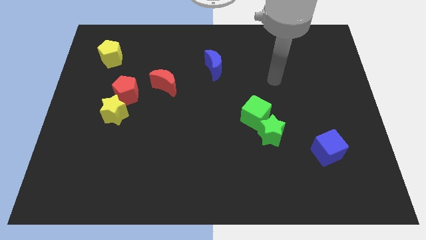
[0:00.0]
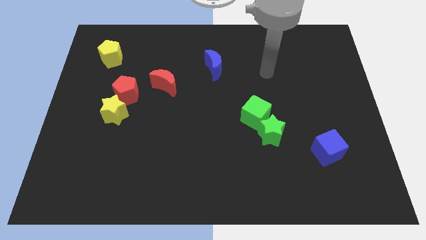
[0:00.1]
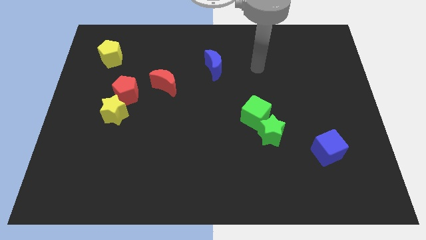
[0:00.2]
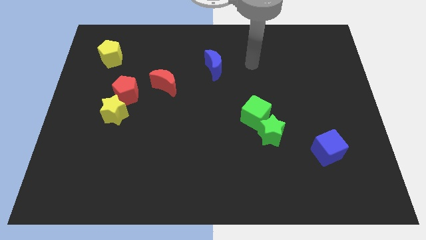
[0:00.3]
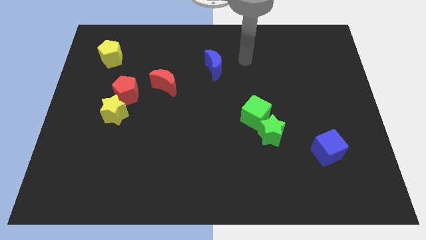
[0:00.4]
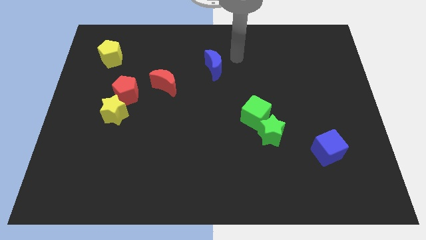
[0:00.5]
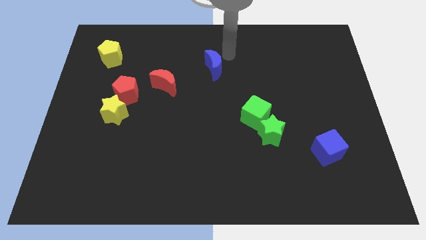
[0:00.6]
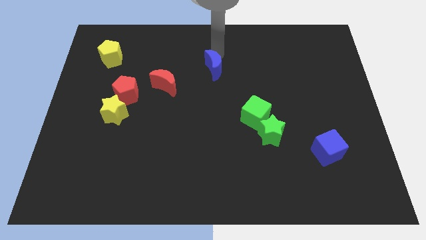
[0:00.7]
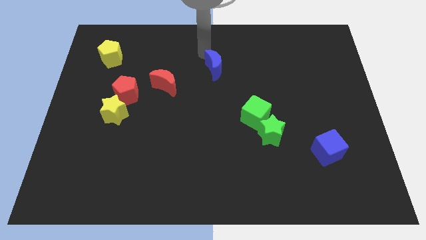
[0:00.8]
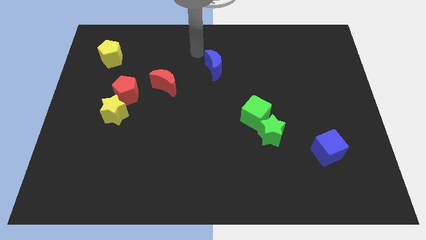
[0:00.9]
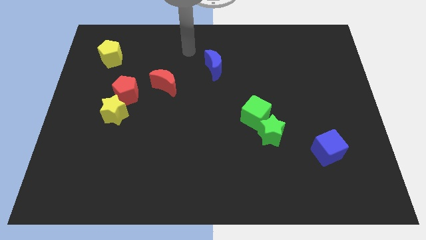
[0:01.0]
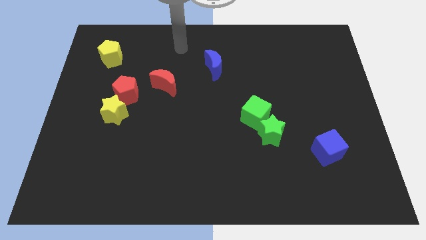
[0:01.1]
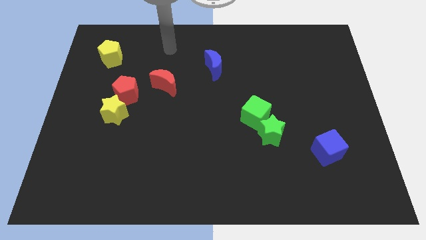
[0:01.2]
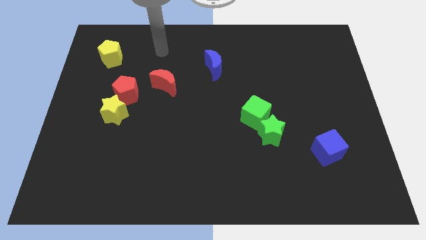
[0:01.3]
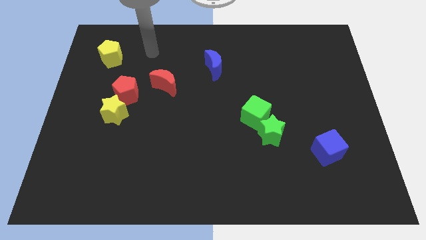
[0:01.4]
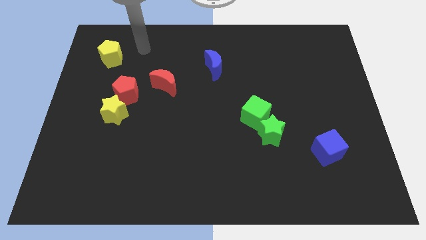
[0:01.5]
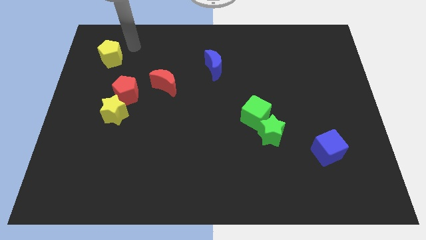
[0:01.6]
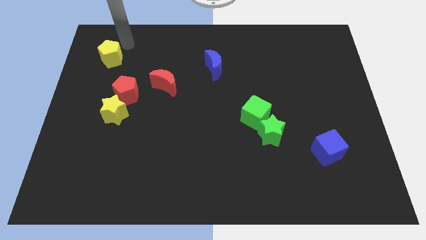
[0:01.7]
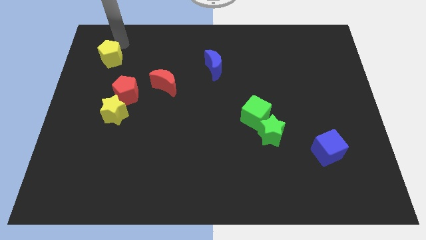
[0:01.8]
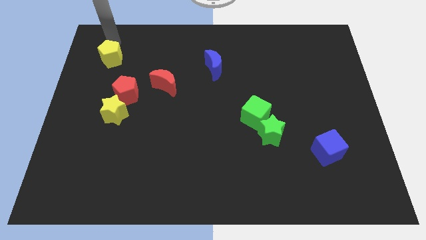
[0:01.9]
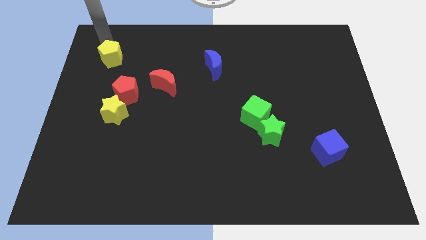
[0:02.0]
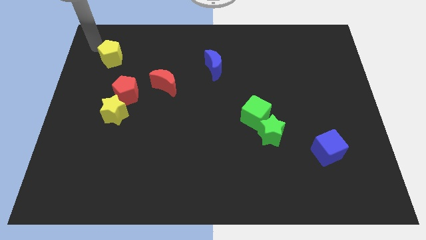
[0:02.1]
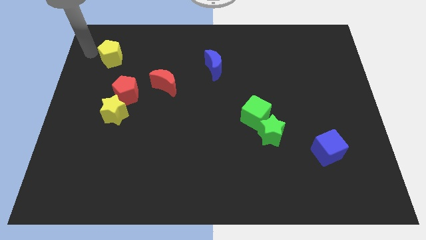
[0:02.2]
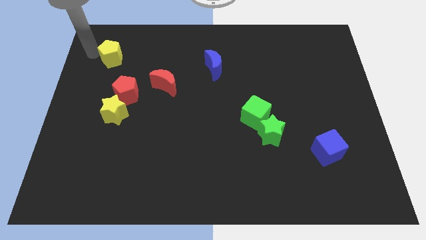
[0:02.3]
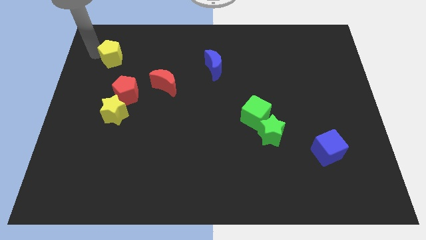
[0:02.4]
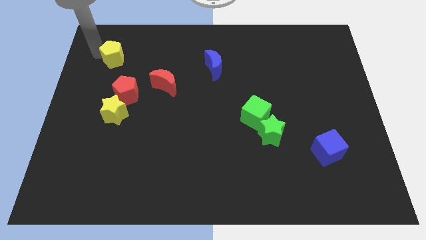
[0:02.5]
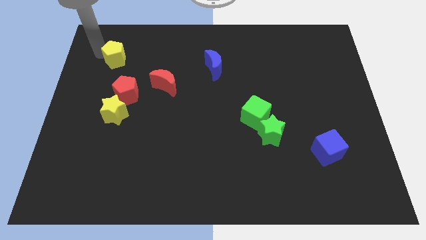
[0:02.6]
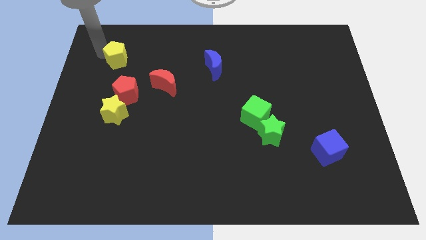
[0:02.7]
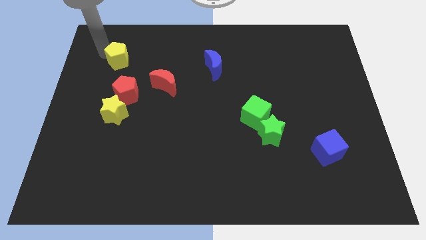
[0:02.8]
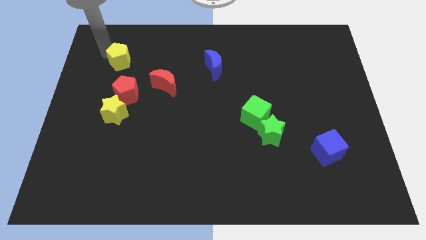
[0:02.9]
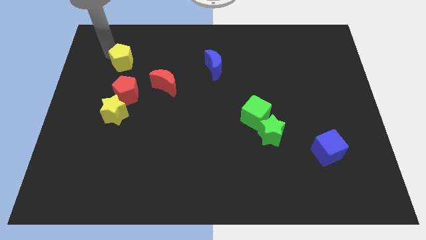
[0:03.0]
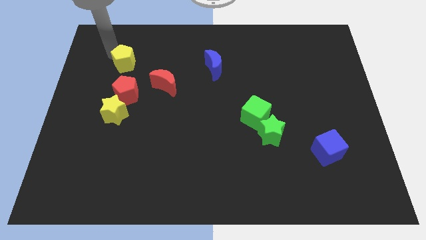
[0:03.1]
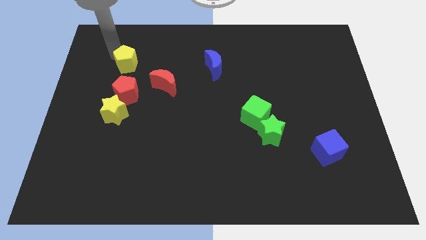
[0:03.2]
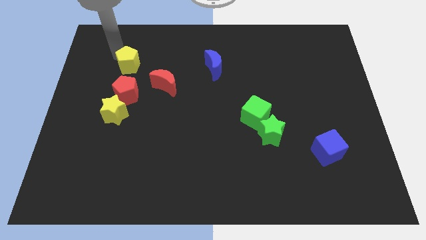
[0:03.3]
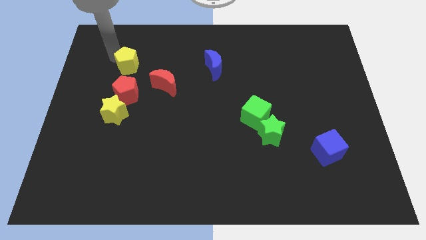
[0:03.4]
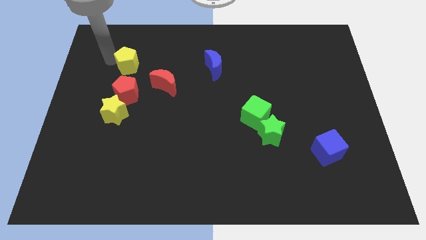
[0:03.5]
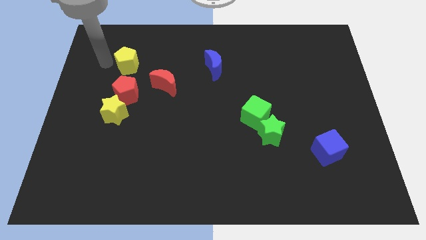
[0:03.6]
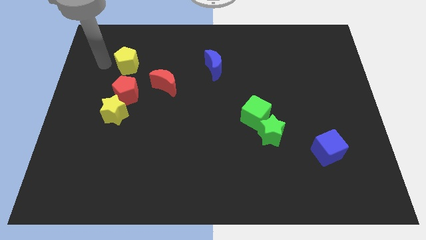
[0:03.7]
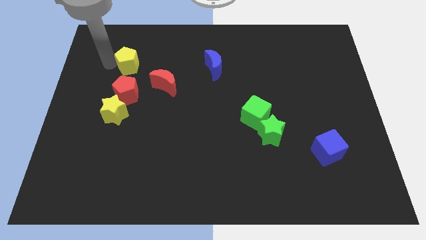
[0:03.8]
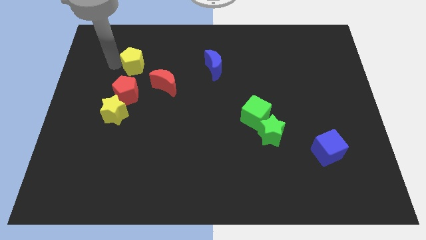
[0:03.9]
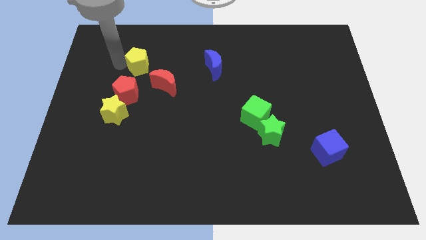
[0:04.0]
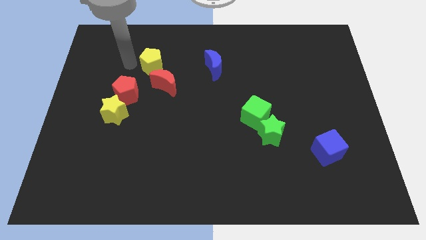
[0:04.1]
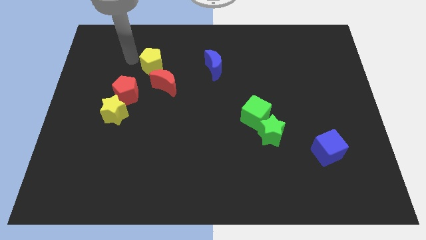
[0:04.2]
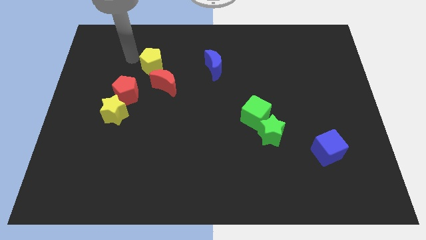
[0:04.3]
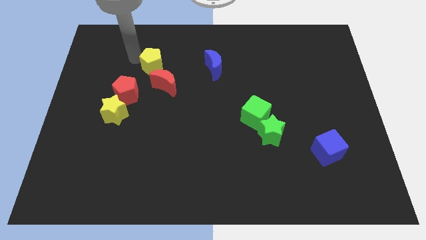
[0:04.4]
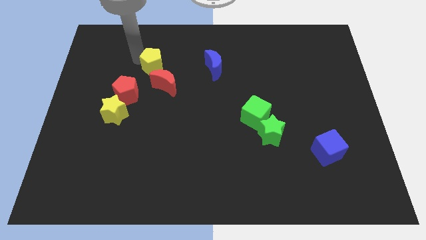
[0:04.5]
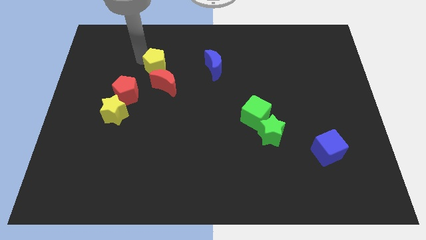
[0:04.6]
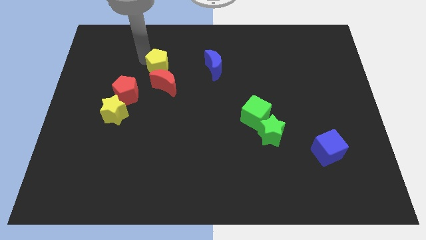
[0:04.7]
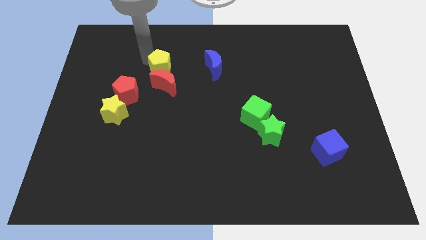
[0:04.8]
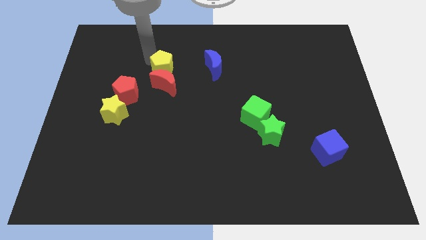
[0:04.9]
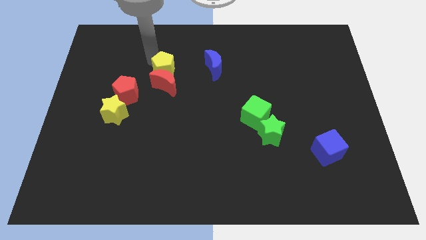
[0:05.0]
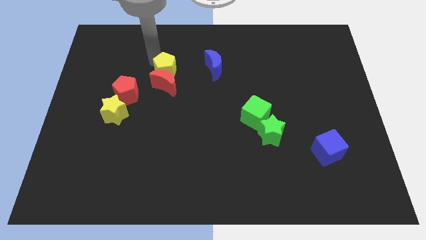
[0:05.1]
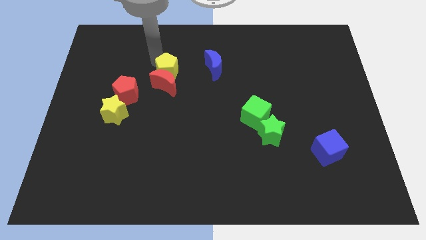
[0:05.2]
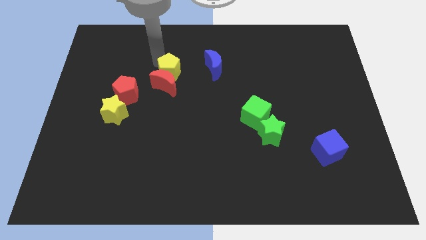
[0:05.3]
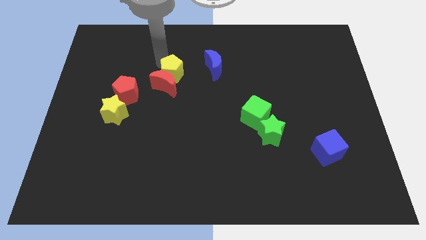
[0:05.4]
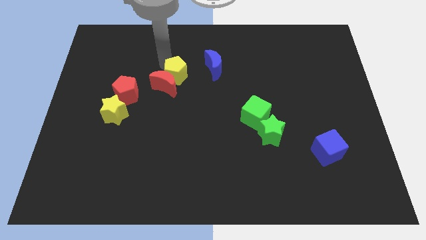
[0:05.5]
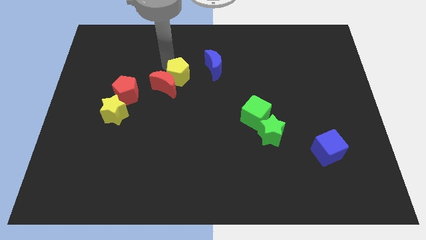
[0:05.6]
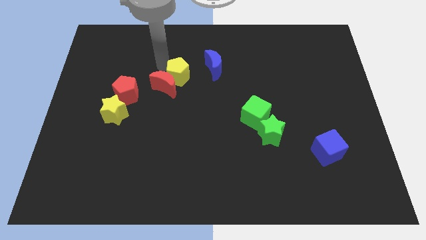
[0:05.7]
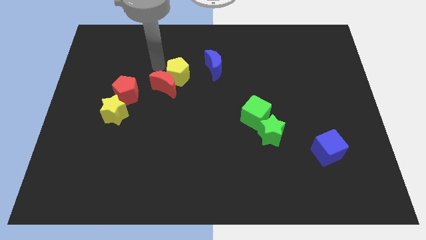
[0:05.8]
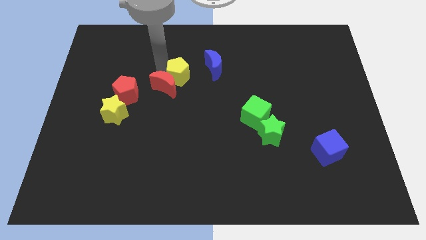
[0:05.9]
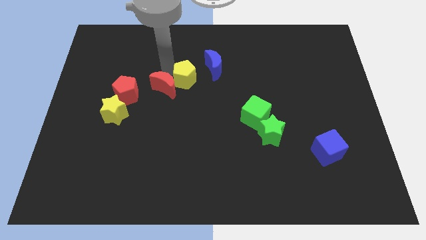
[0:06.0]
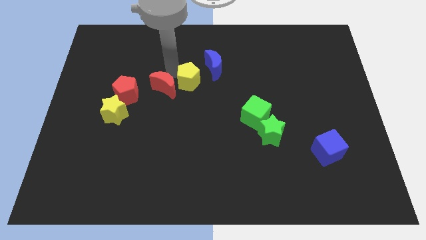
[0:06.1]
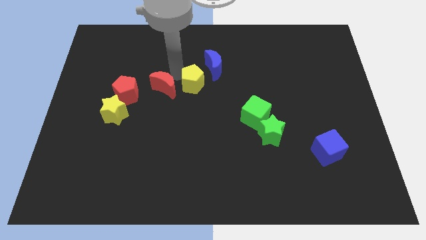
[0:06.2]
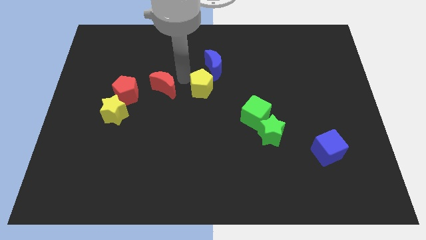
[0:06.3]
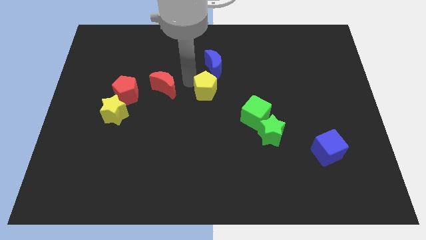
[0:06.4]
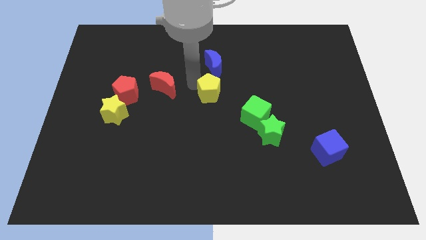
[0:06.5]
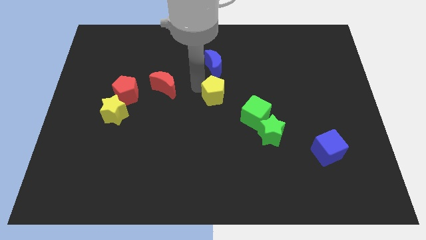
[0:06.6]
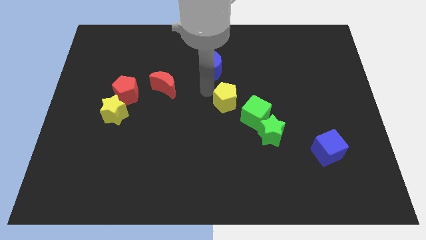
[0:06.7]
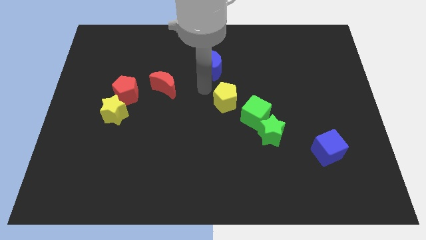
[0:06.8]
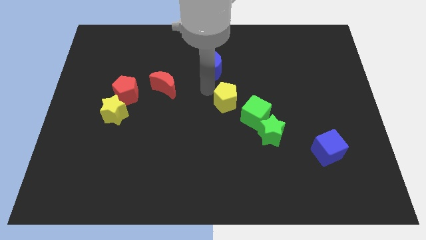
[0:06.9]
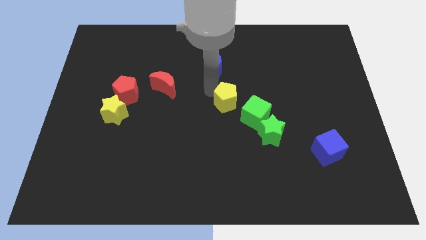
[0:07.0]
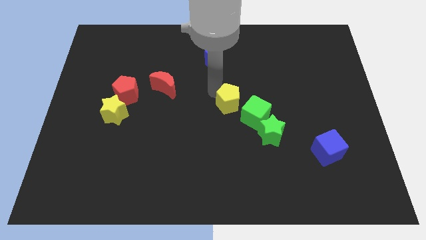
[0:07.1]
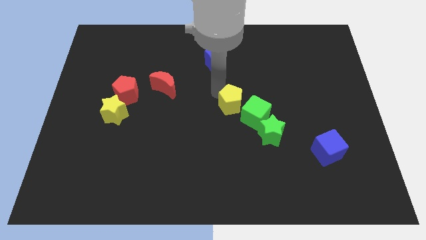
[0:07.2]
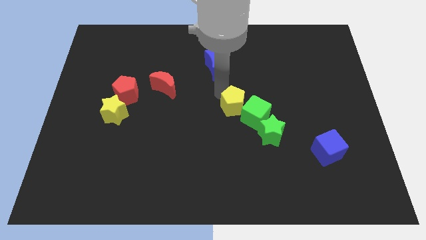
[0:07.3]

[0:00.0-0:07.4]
slide the yellow pentagon to the green cube

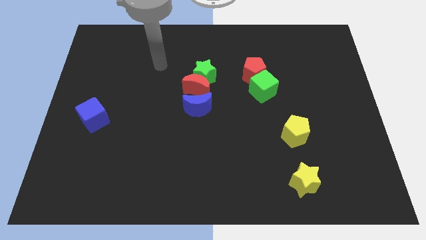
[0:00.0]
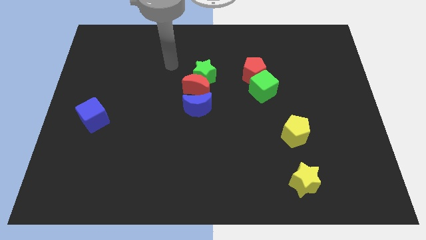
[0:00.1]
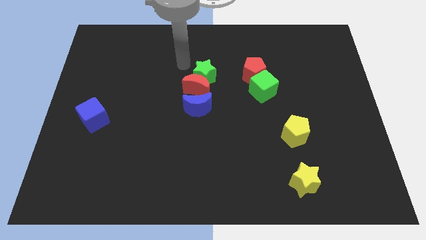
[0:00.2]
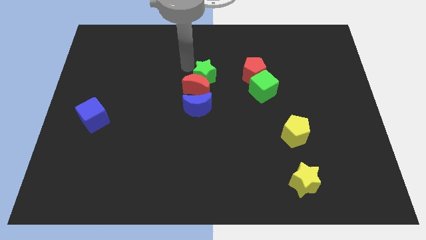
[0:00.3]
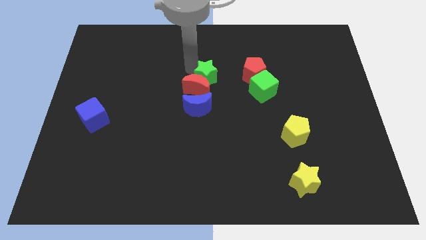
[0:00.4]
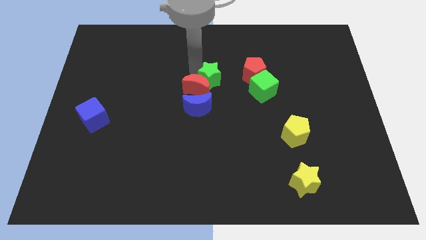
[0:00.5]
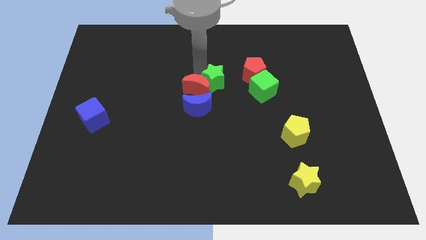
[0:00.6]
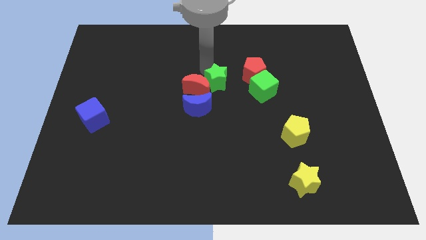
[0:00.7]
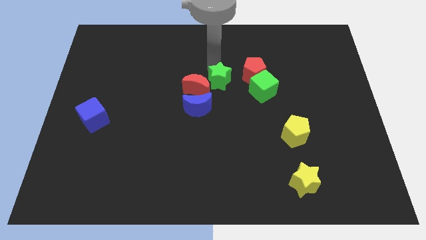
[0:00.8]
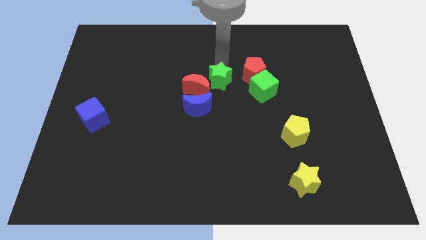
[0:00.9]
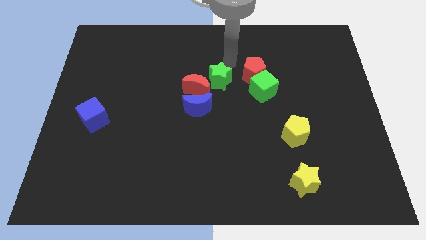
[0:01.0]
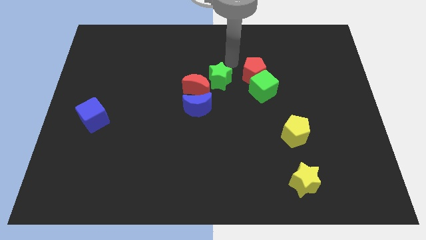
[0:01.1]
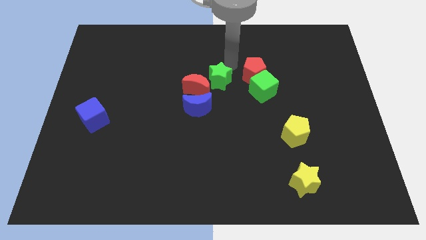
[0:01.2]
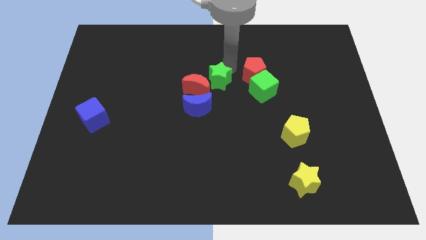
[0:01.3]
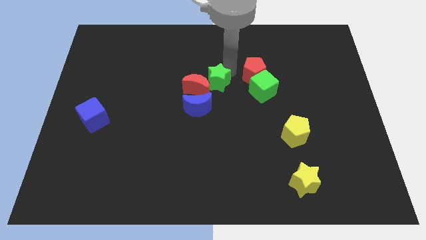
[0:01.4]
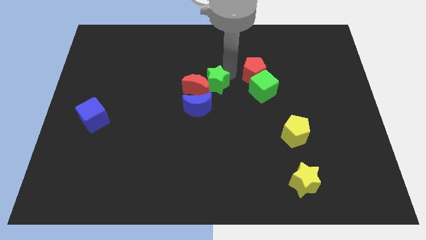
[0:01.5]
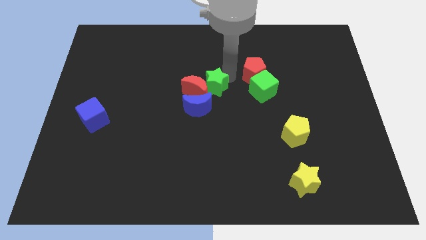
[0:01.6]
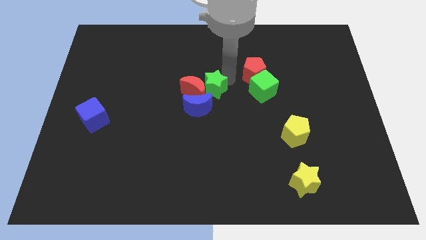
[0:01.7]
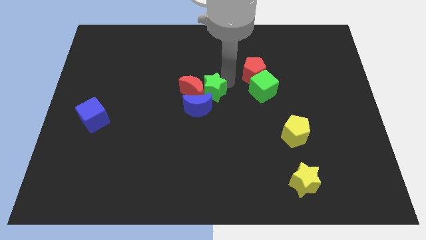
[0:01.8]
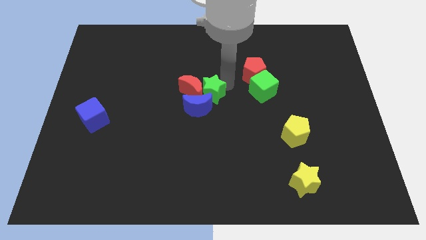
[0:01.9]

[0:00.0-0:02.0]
put the green star towards the blue moon
